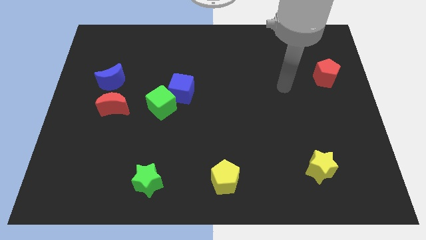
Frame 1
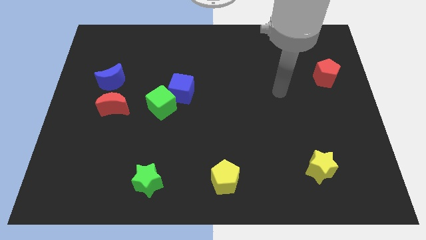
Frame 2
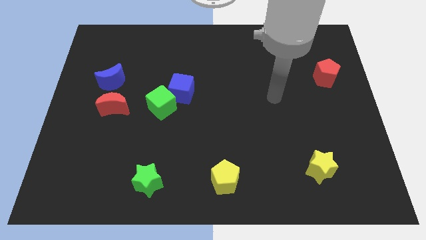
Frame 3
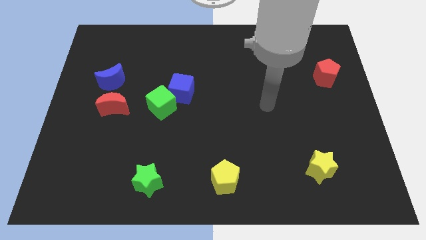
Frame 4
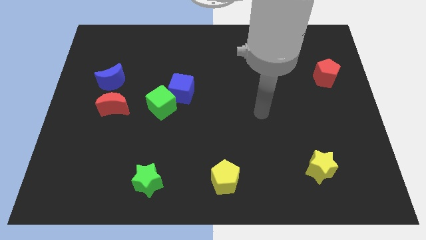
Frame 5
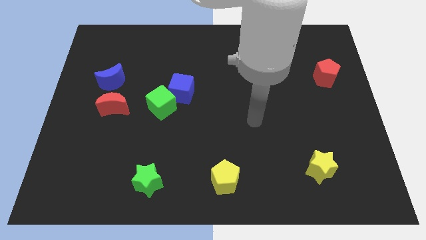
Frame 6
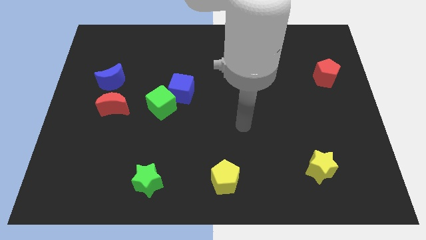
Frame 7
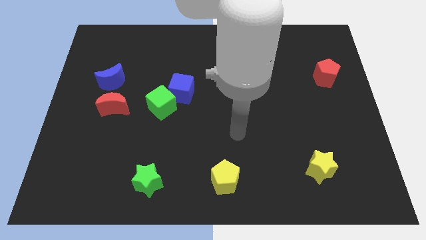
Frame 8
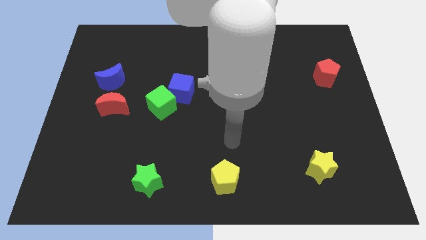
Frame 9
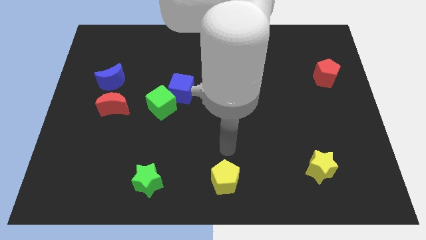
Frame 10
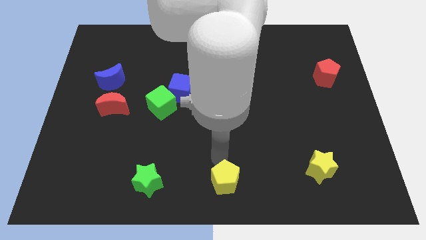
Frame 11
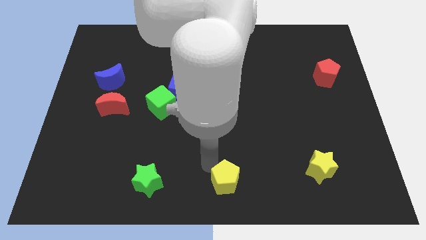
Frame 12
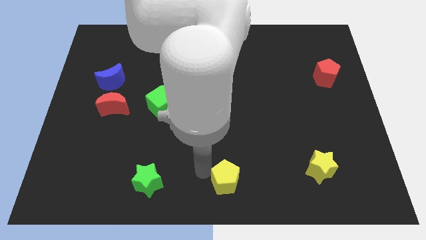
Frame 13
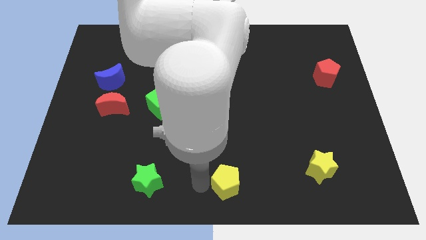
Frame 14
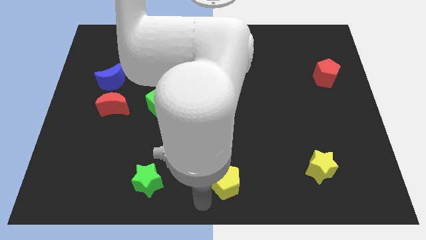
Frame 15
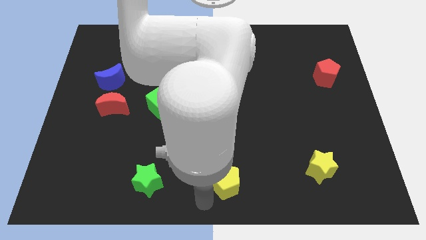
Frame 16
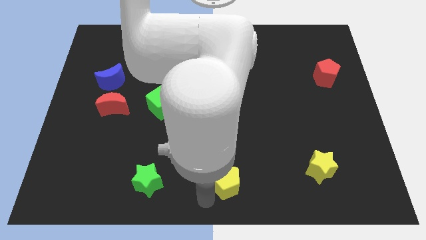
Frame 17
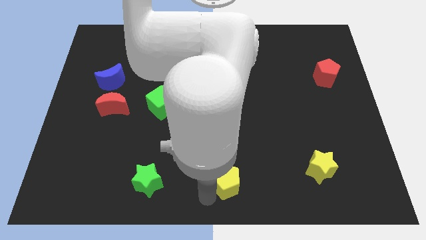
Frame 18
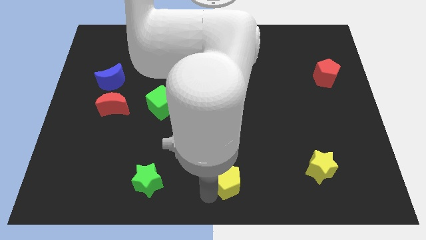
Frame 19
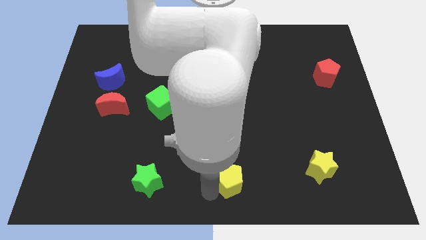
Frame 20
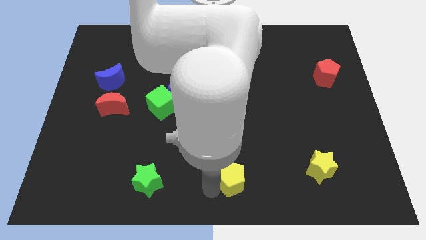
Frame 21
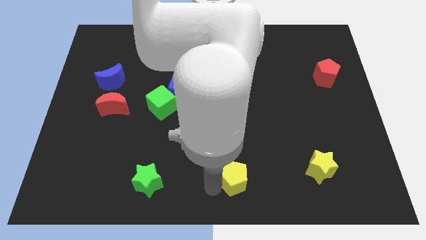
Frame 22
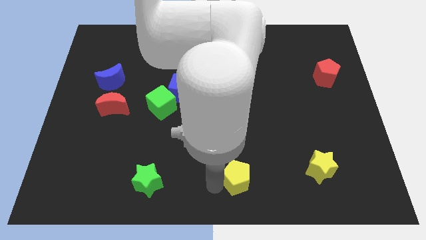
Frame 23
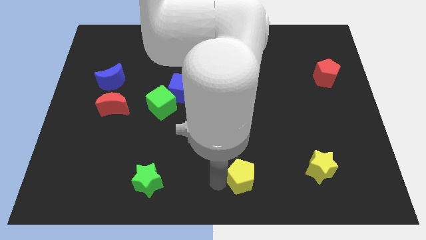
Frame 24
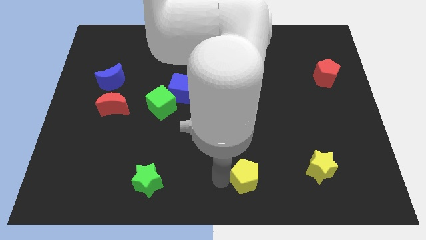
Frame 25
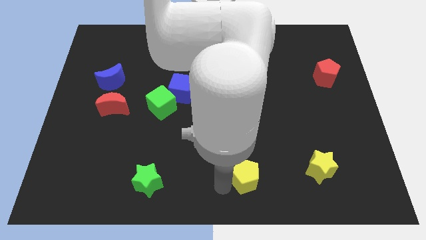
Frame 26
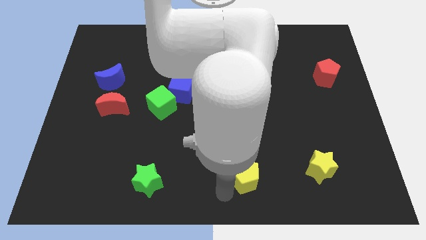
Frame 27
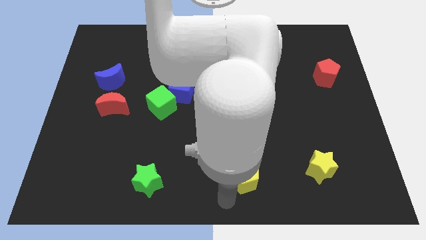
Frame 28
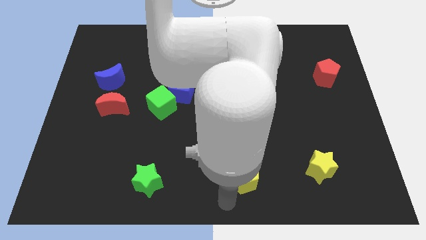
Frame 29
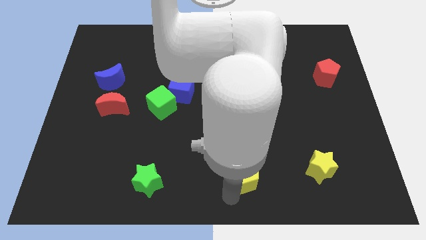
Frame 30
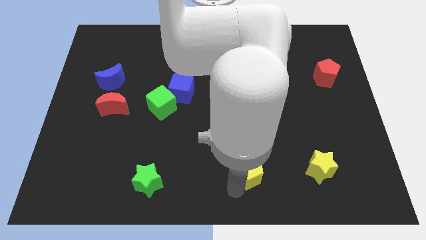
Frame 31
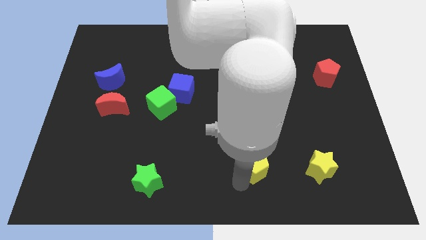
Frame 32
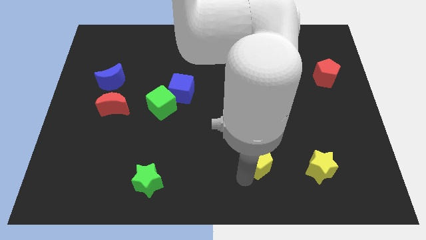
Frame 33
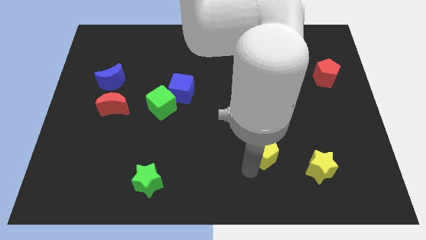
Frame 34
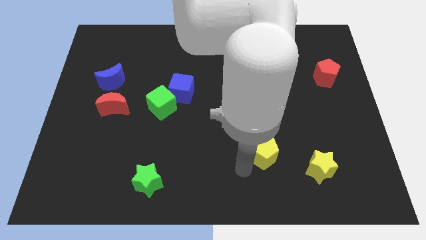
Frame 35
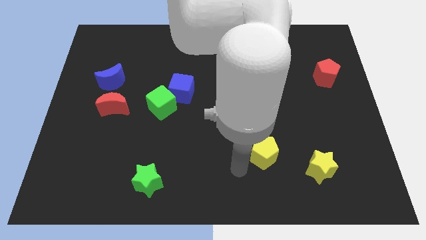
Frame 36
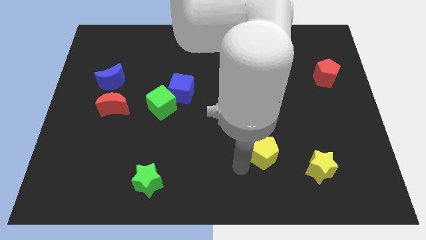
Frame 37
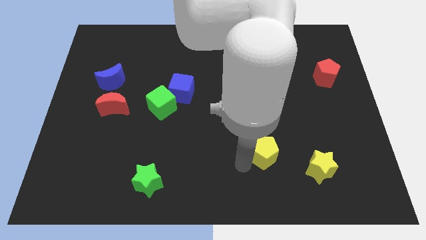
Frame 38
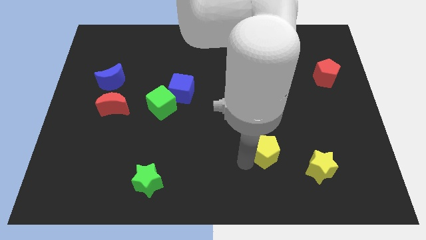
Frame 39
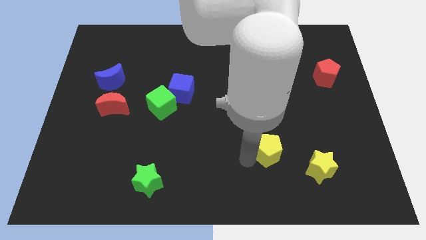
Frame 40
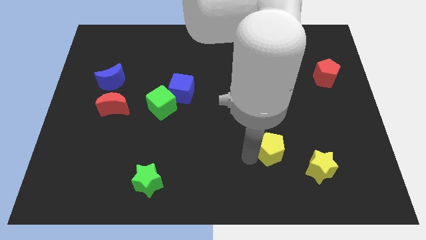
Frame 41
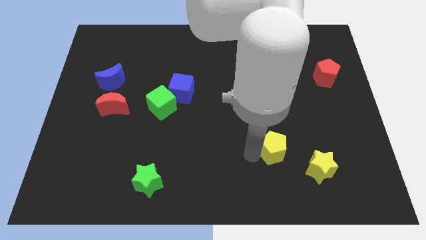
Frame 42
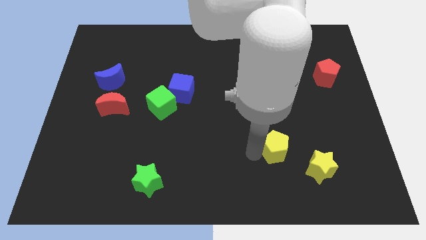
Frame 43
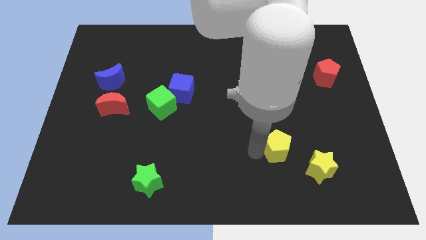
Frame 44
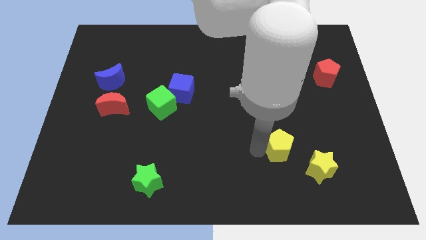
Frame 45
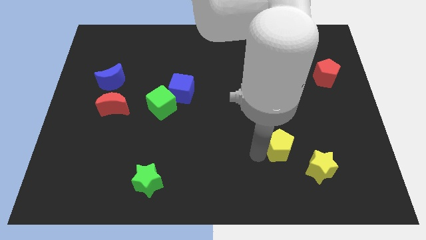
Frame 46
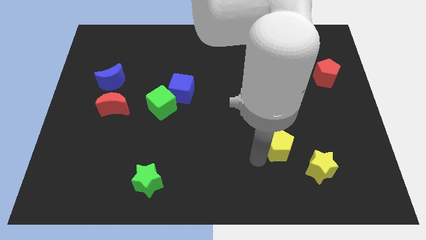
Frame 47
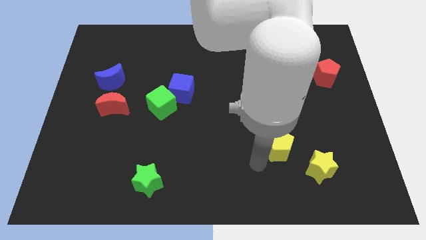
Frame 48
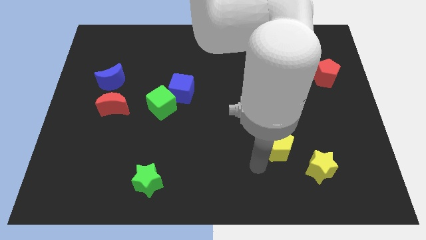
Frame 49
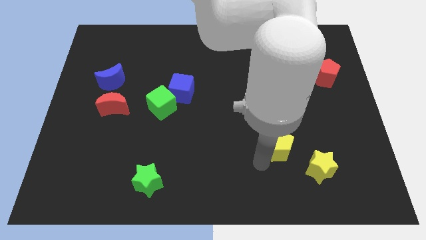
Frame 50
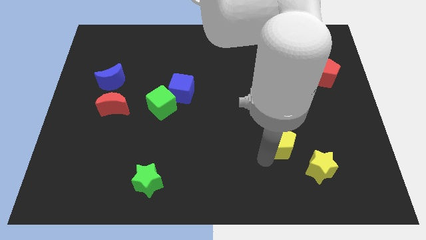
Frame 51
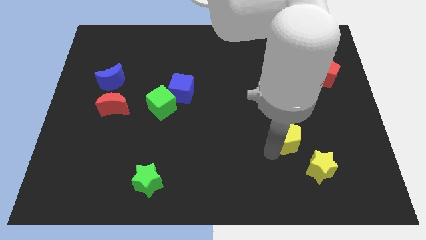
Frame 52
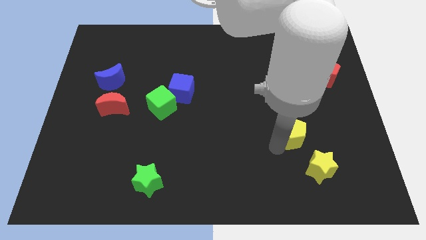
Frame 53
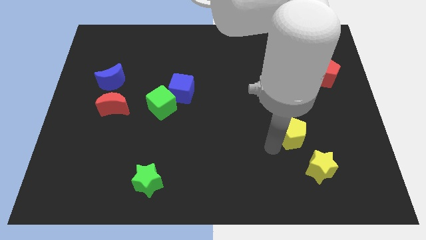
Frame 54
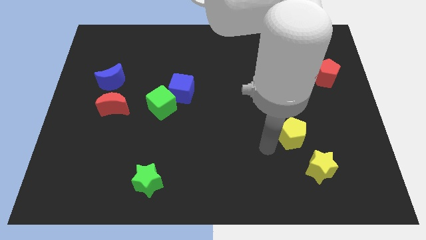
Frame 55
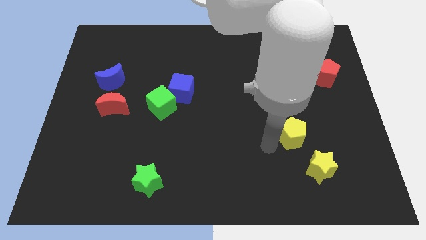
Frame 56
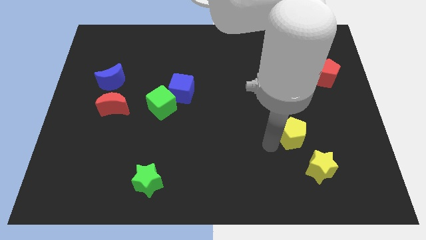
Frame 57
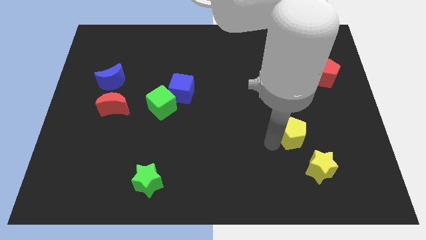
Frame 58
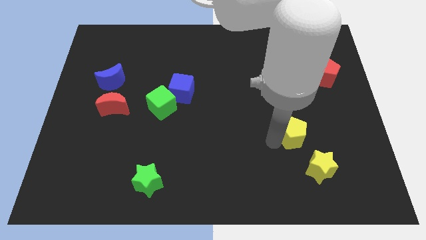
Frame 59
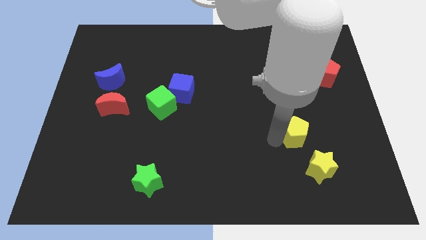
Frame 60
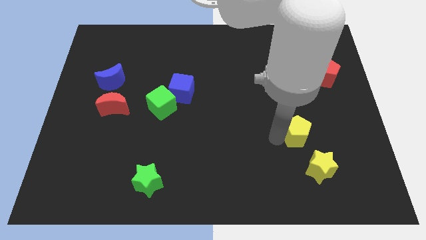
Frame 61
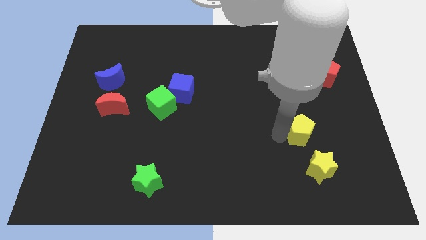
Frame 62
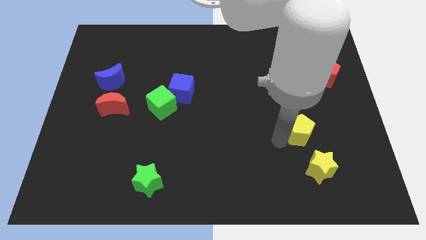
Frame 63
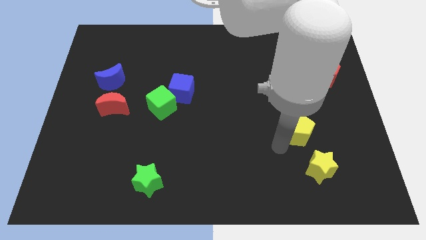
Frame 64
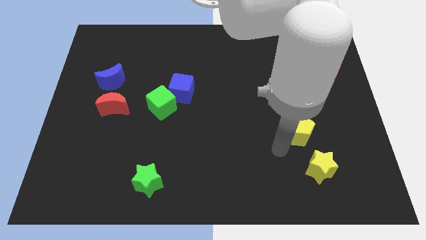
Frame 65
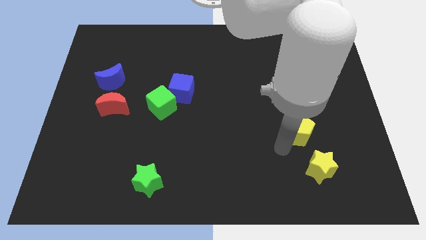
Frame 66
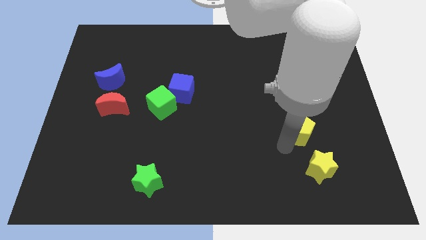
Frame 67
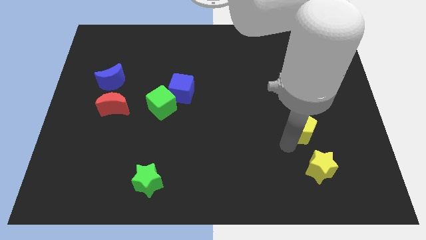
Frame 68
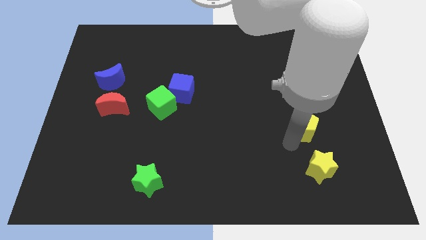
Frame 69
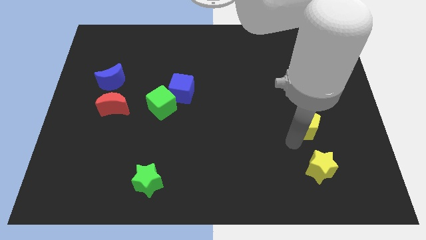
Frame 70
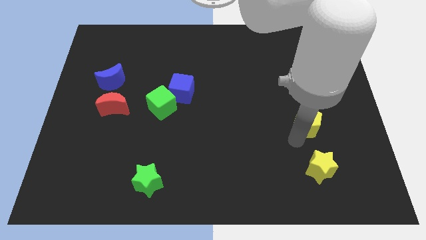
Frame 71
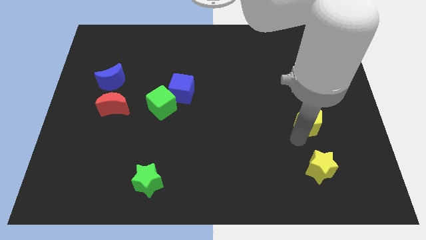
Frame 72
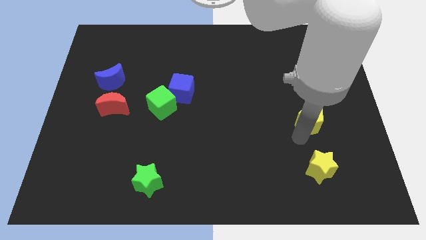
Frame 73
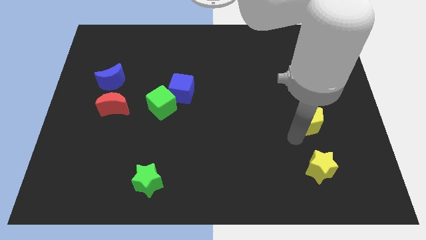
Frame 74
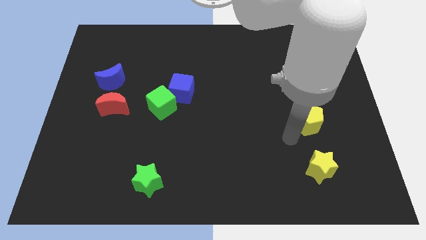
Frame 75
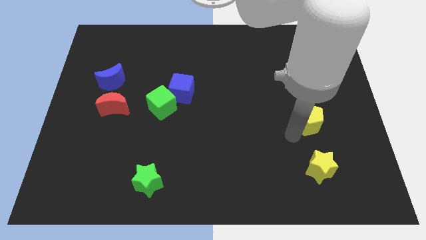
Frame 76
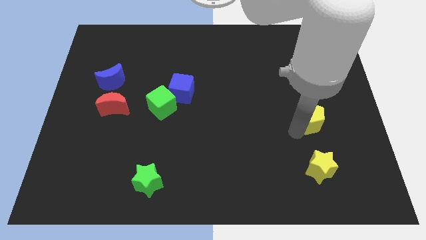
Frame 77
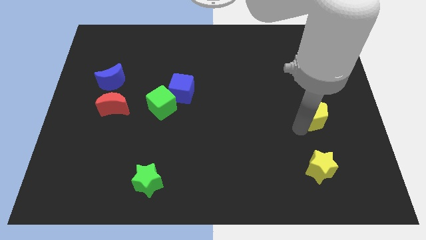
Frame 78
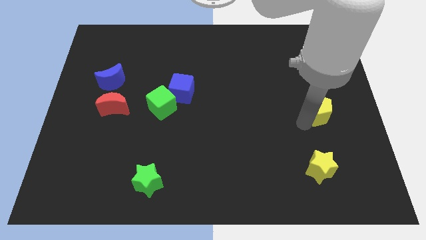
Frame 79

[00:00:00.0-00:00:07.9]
slide the yellow pentagon to the bottom side of the red pentagon
